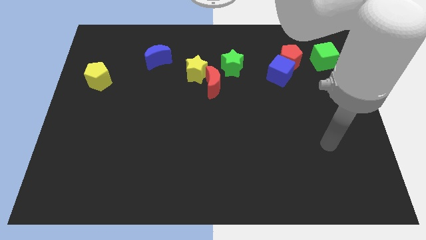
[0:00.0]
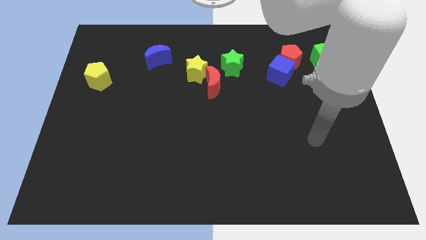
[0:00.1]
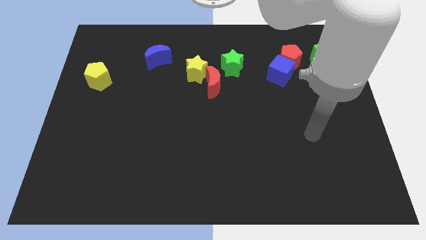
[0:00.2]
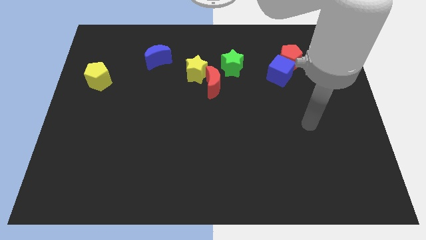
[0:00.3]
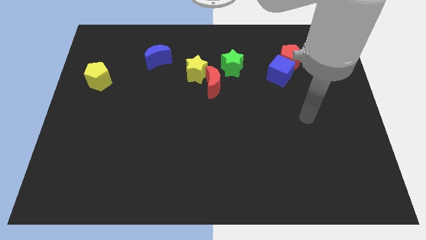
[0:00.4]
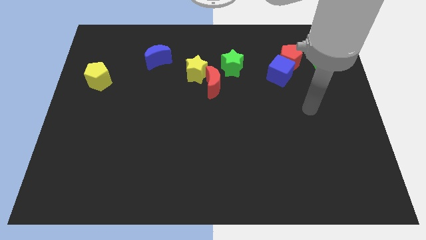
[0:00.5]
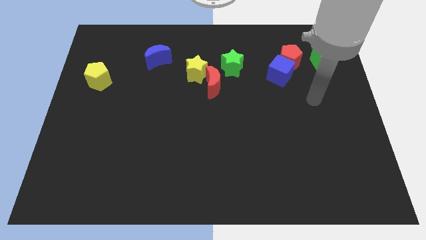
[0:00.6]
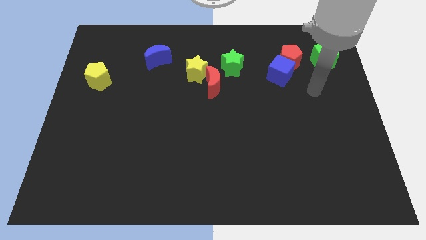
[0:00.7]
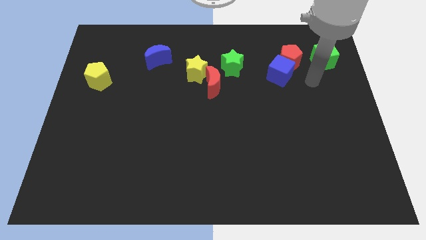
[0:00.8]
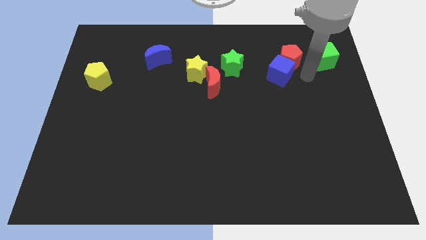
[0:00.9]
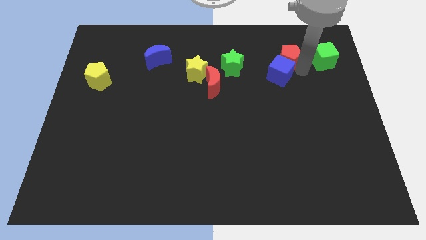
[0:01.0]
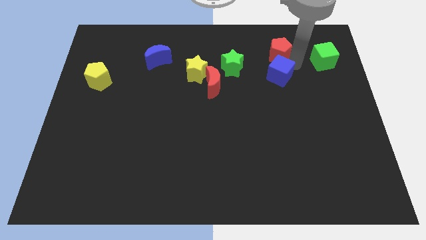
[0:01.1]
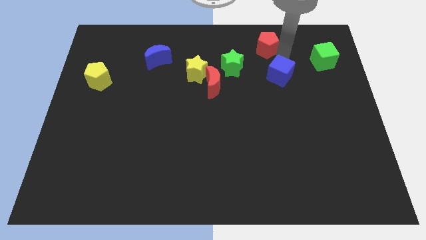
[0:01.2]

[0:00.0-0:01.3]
pull the blue cube apart from the red pentagon

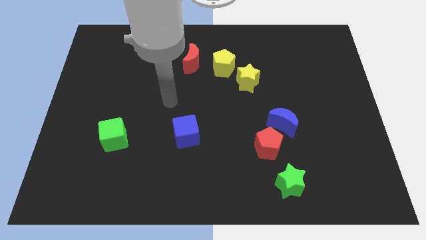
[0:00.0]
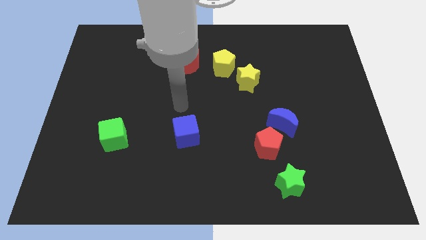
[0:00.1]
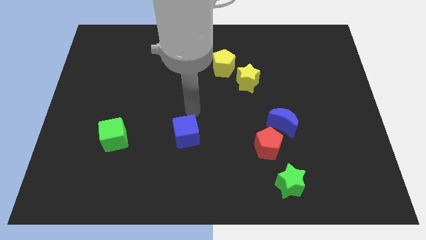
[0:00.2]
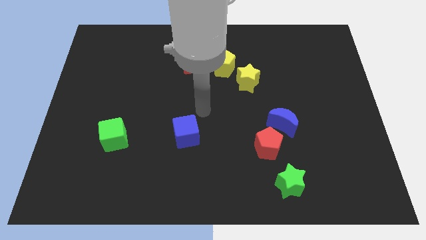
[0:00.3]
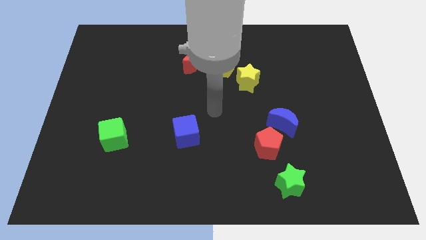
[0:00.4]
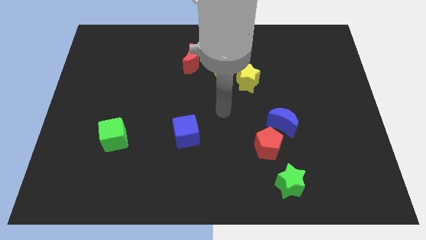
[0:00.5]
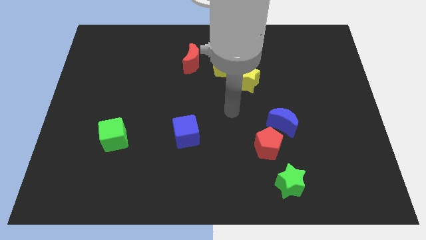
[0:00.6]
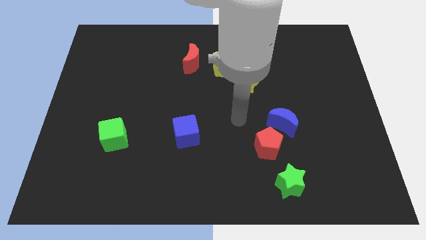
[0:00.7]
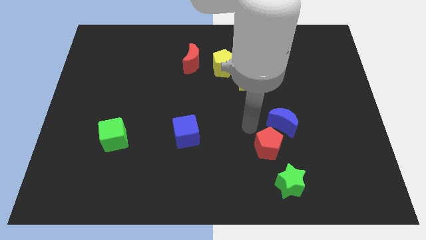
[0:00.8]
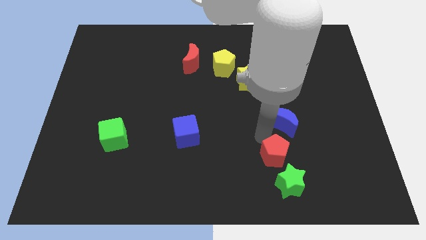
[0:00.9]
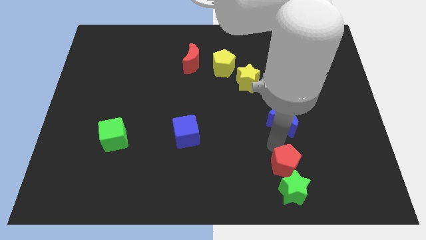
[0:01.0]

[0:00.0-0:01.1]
separate the blue moon from the red pentagon

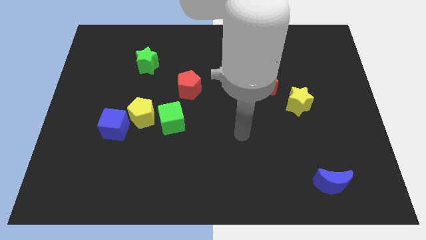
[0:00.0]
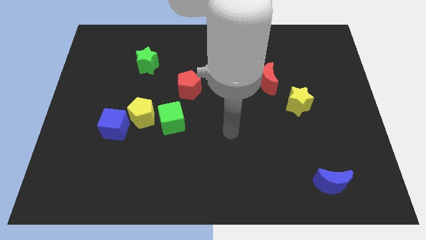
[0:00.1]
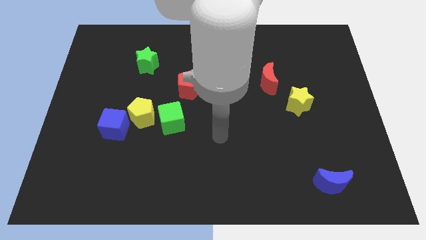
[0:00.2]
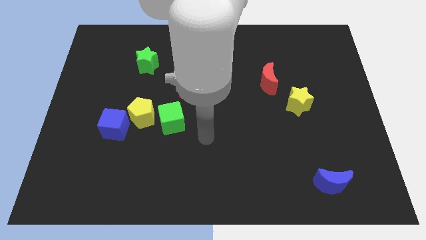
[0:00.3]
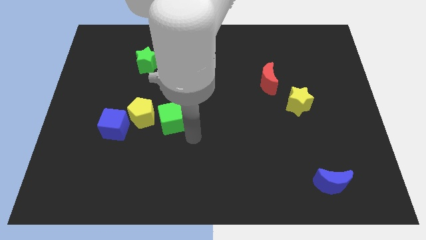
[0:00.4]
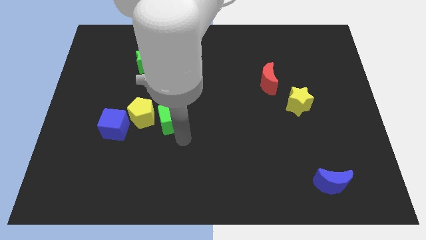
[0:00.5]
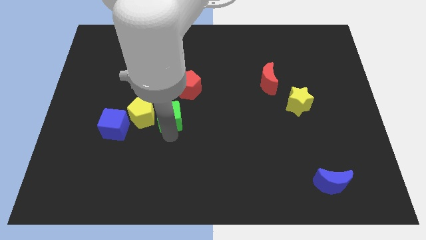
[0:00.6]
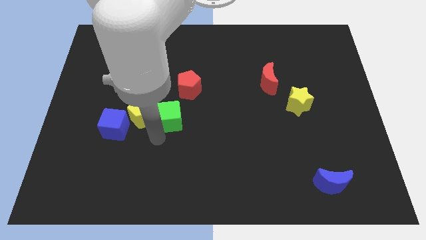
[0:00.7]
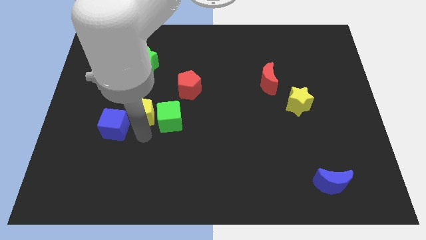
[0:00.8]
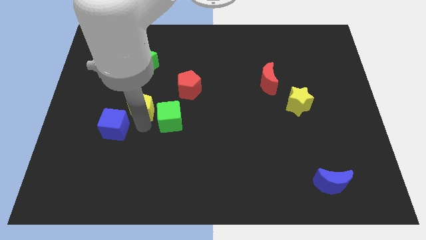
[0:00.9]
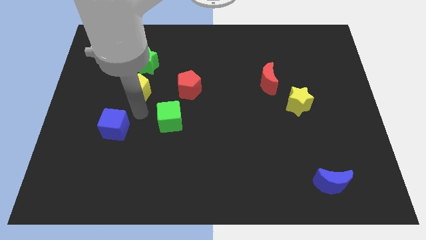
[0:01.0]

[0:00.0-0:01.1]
separate the blue cube from the yellow pentagon

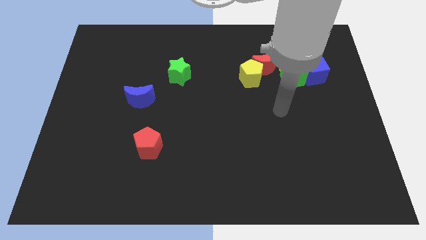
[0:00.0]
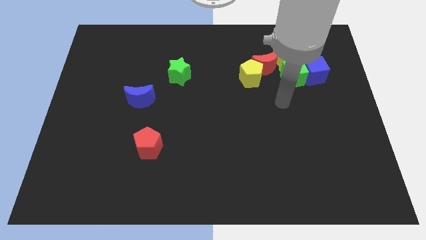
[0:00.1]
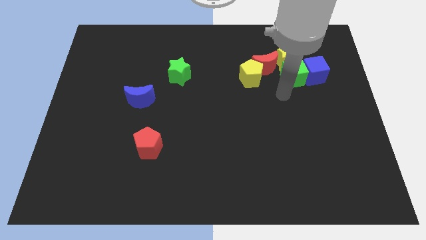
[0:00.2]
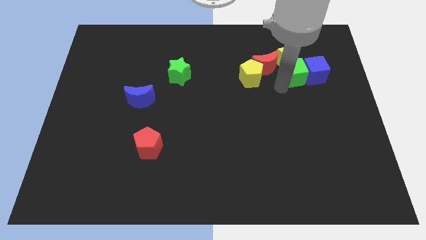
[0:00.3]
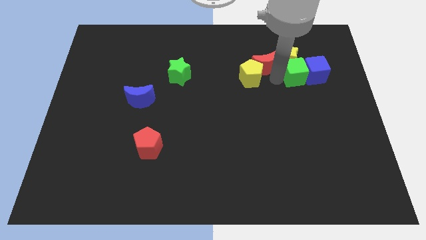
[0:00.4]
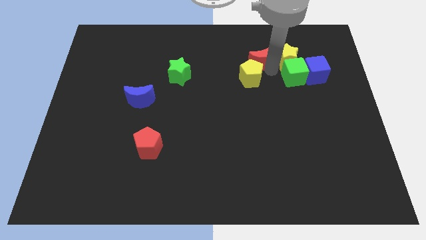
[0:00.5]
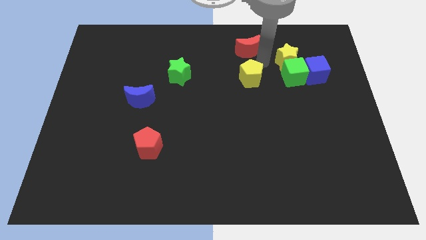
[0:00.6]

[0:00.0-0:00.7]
move the yellow pentagon away from the red moon

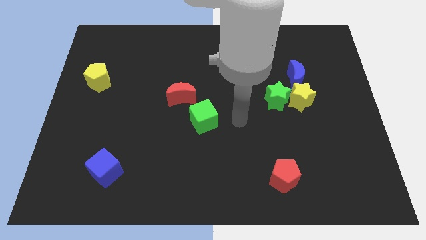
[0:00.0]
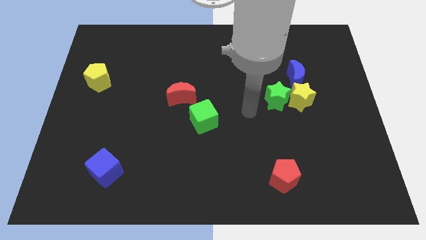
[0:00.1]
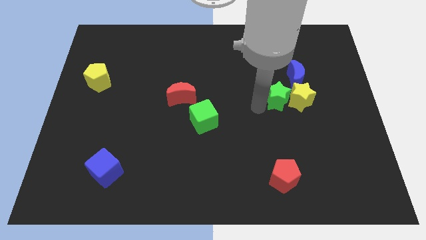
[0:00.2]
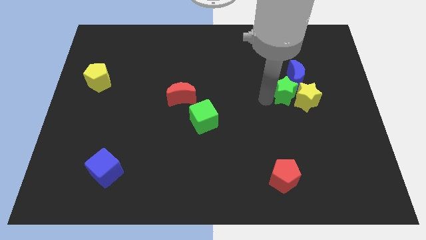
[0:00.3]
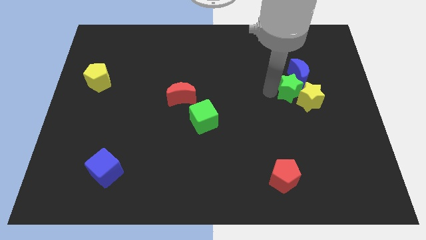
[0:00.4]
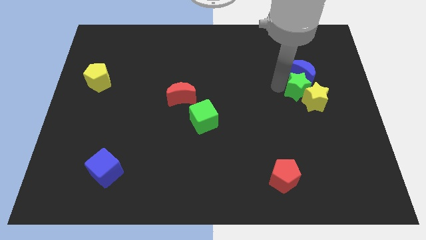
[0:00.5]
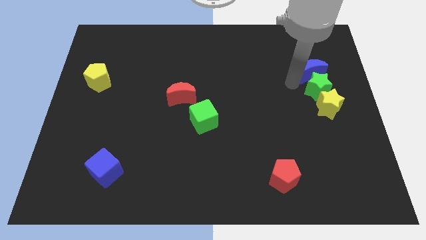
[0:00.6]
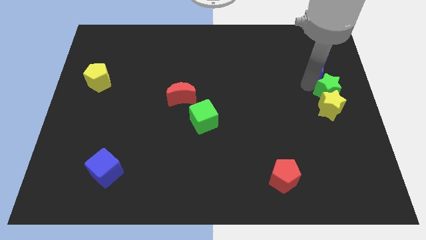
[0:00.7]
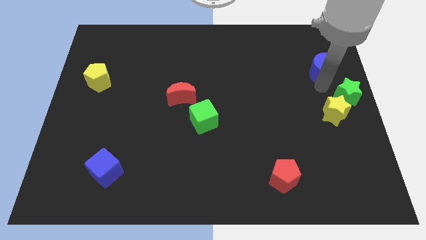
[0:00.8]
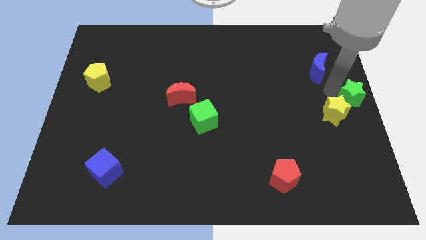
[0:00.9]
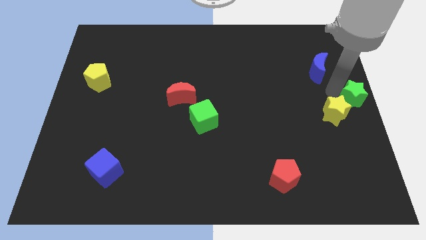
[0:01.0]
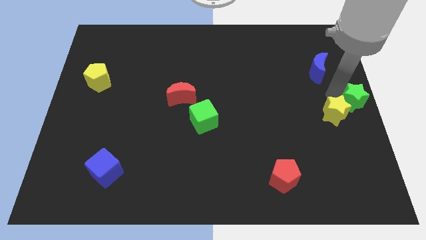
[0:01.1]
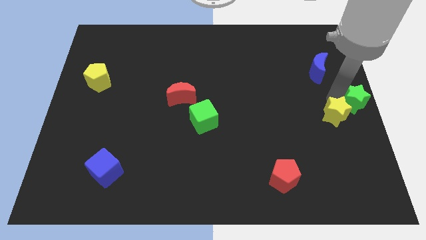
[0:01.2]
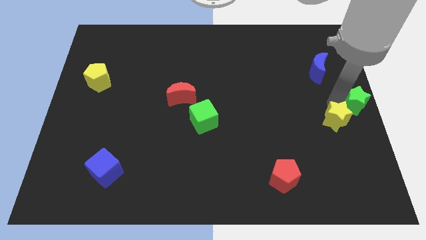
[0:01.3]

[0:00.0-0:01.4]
pull the yellow star apart from the green star and blue moon

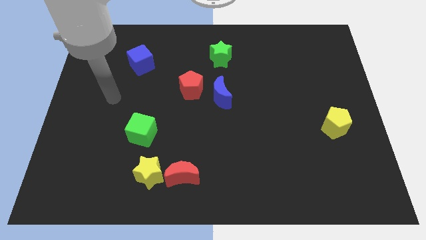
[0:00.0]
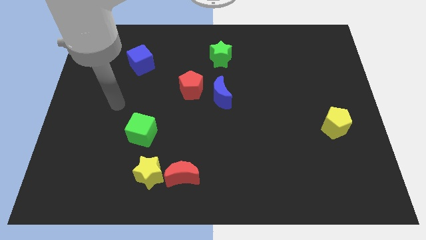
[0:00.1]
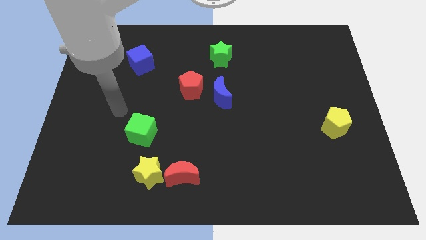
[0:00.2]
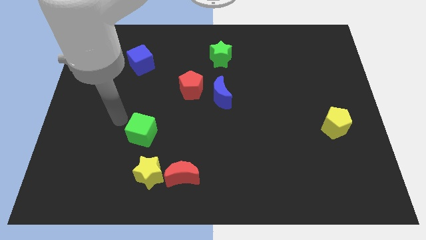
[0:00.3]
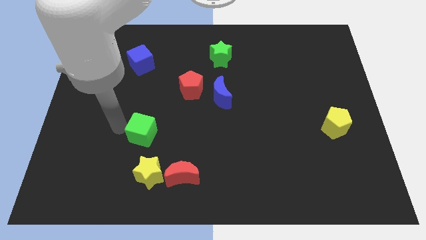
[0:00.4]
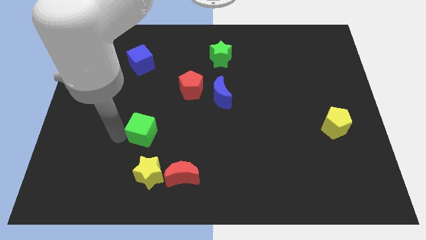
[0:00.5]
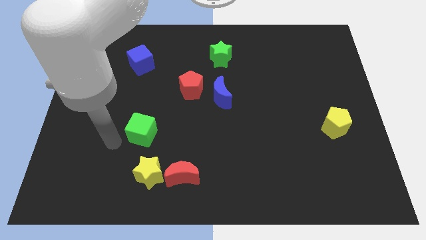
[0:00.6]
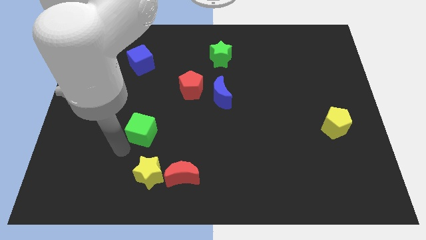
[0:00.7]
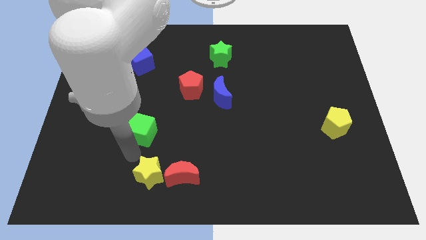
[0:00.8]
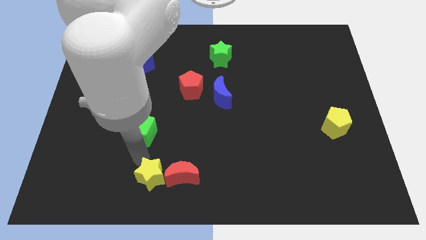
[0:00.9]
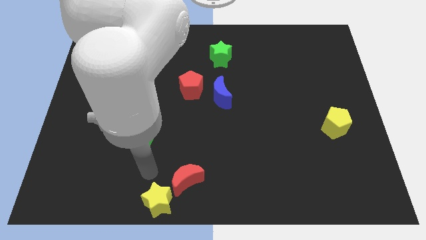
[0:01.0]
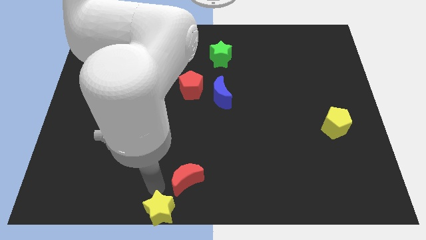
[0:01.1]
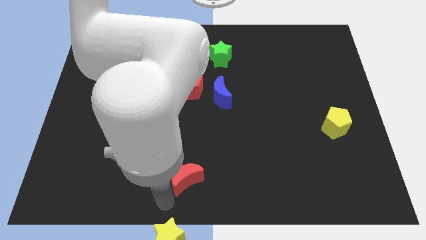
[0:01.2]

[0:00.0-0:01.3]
move the red moon away from the yellow star

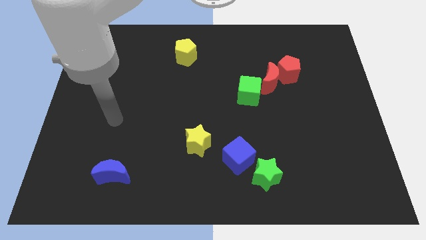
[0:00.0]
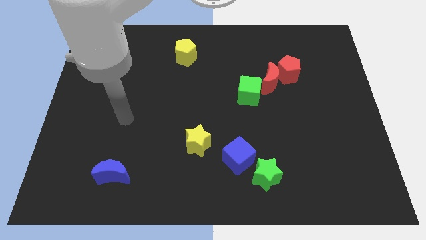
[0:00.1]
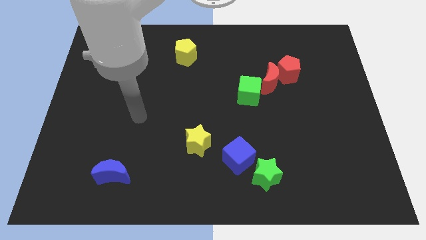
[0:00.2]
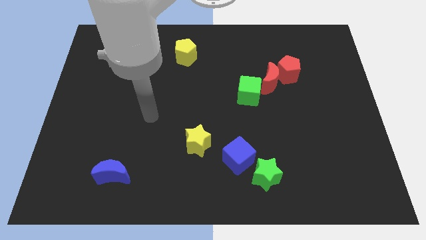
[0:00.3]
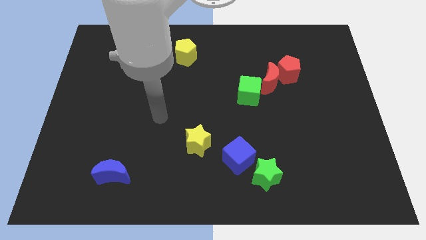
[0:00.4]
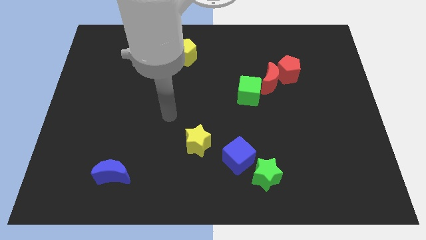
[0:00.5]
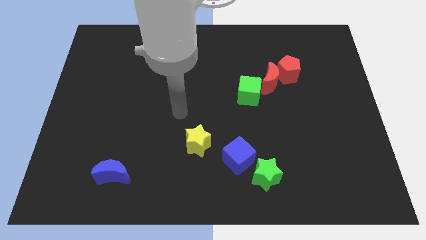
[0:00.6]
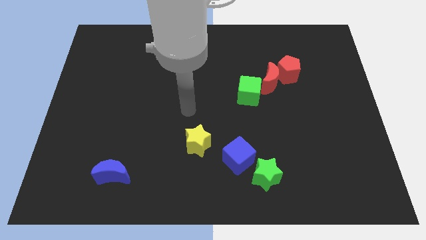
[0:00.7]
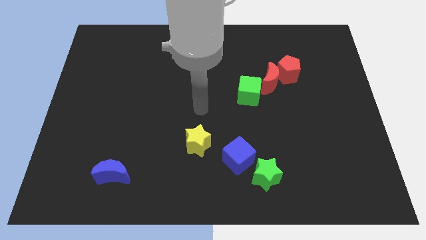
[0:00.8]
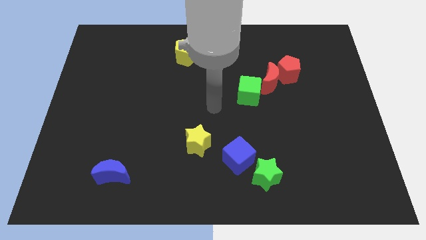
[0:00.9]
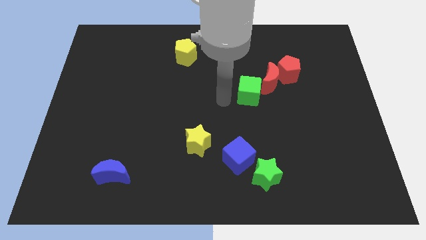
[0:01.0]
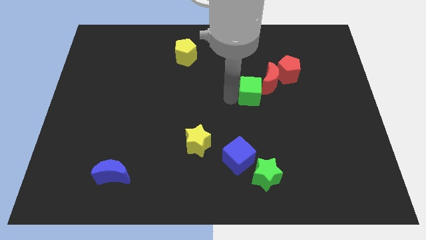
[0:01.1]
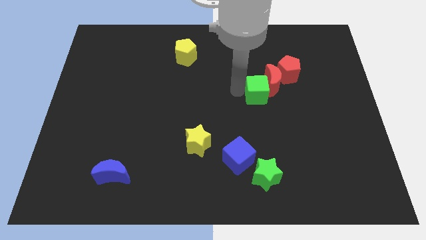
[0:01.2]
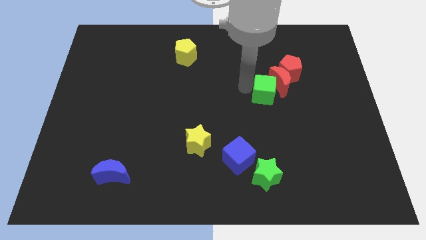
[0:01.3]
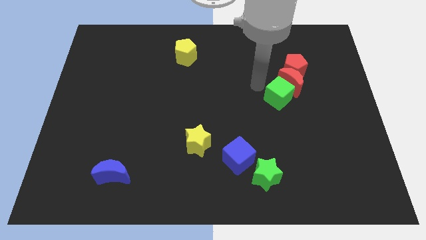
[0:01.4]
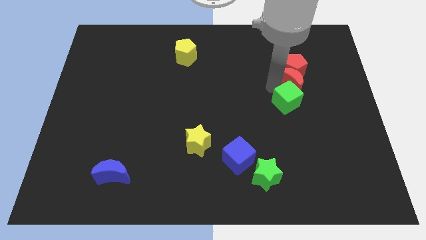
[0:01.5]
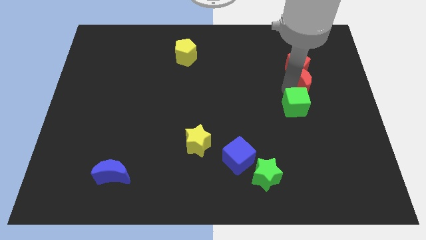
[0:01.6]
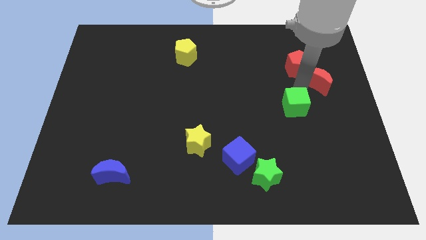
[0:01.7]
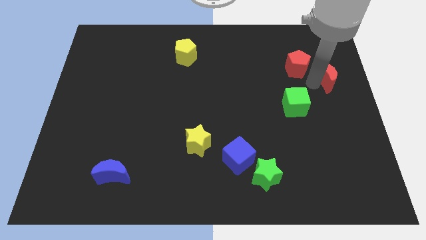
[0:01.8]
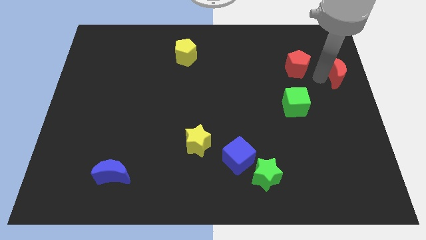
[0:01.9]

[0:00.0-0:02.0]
separate the red pentagon from the red moon

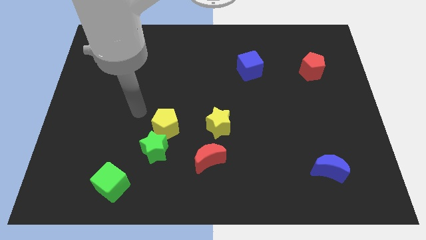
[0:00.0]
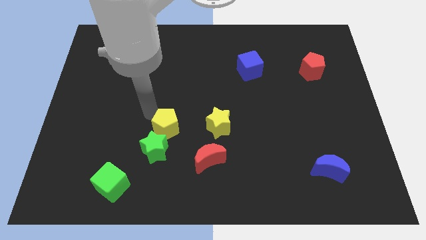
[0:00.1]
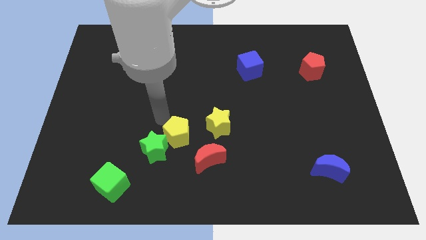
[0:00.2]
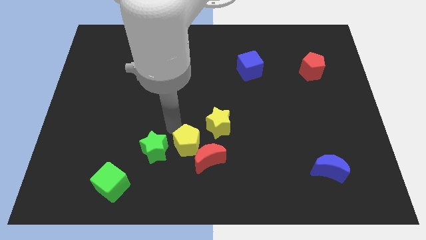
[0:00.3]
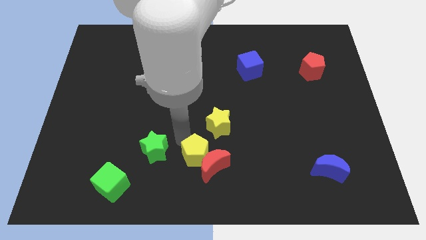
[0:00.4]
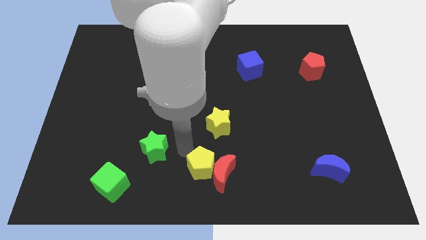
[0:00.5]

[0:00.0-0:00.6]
separate the green star from the yellow pentagon
